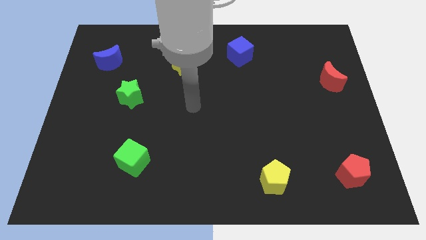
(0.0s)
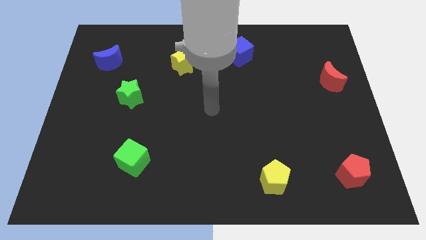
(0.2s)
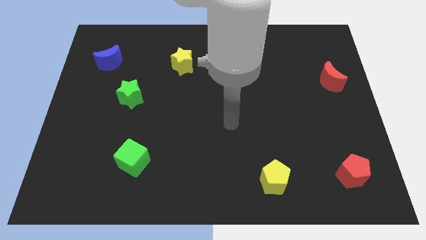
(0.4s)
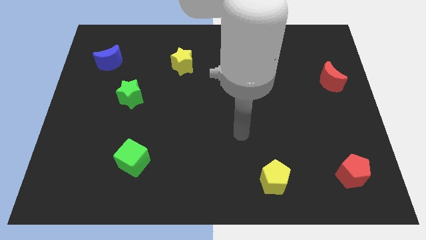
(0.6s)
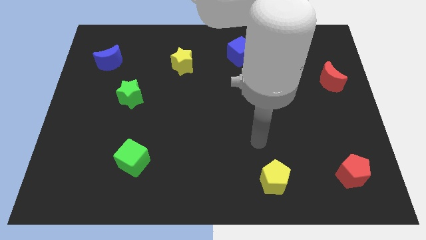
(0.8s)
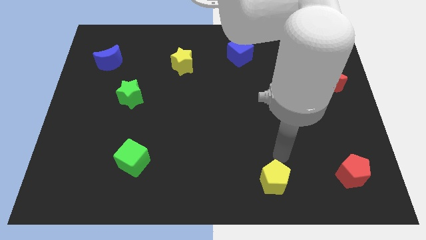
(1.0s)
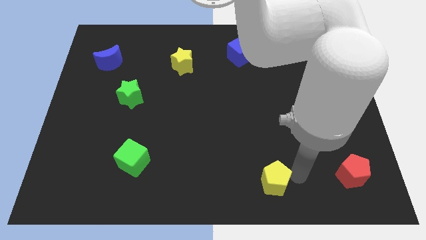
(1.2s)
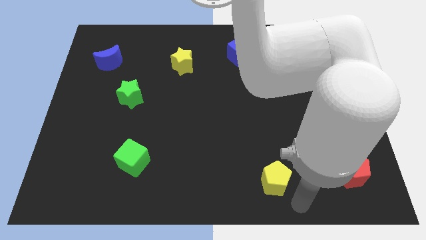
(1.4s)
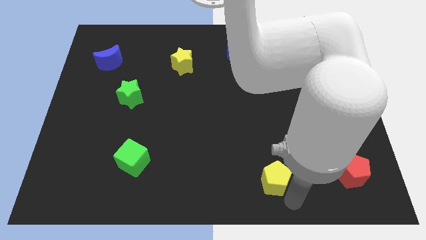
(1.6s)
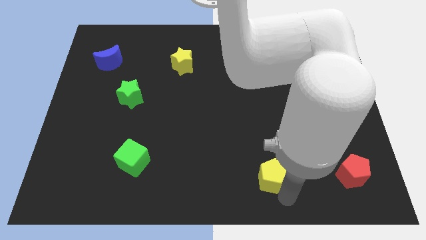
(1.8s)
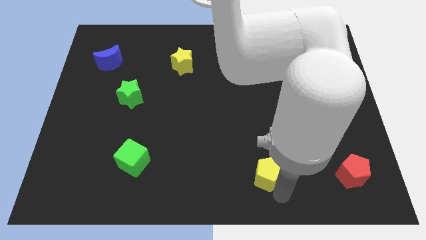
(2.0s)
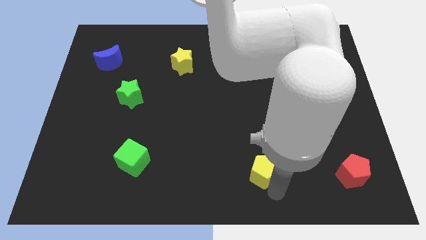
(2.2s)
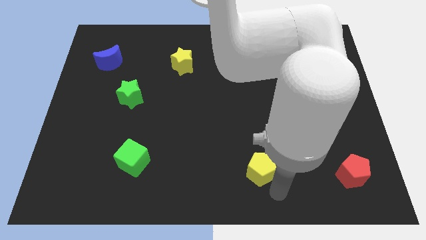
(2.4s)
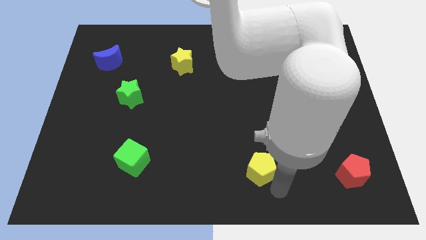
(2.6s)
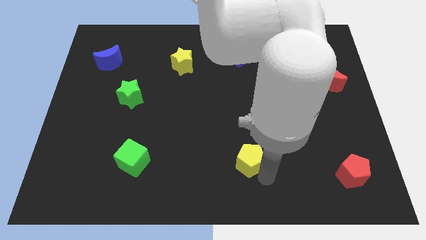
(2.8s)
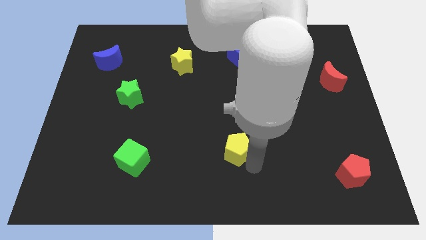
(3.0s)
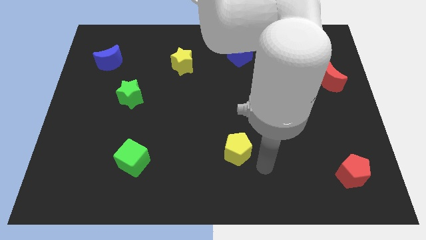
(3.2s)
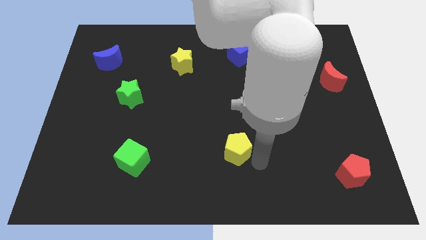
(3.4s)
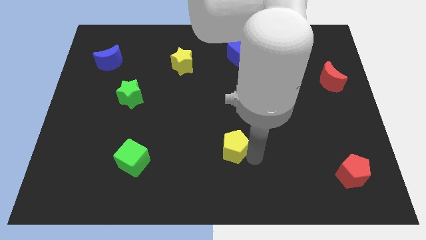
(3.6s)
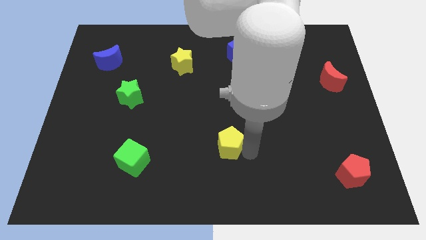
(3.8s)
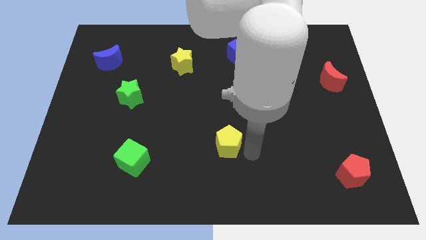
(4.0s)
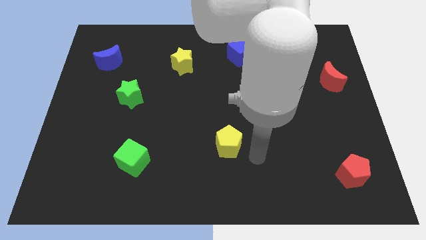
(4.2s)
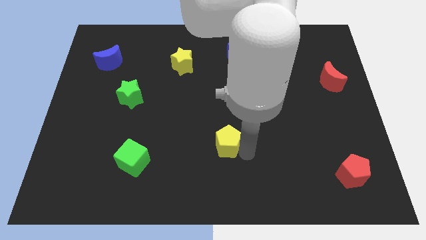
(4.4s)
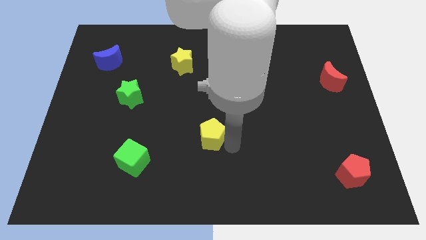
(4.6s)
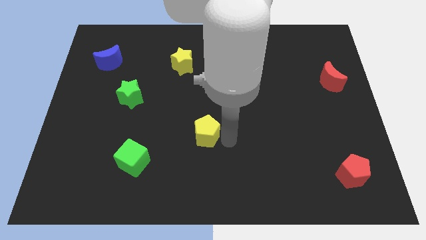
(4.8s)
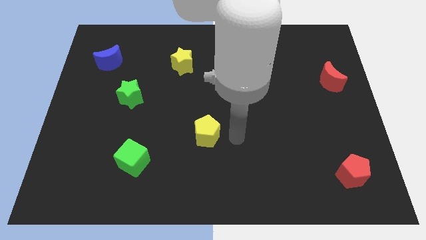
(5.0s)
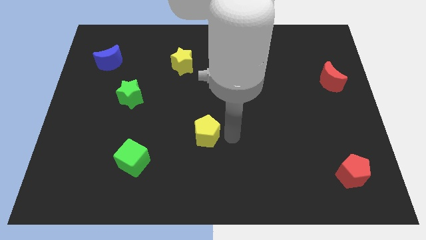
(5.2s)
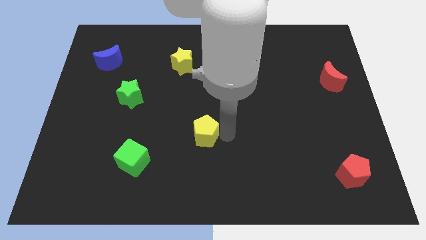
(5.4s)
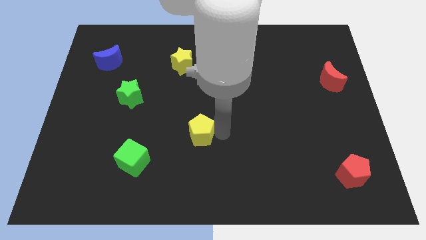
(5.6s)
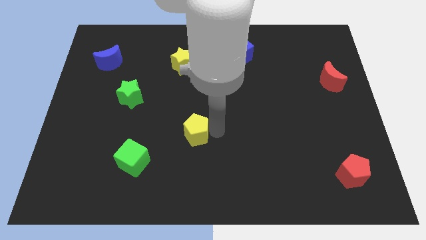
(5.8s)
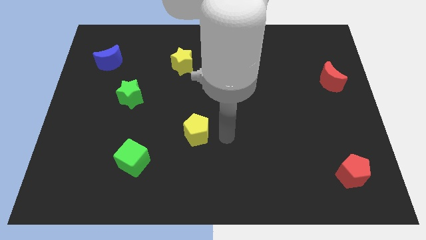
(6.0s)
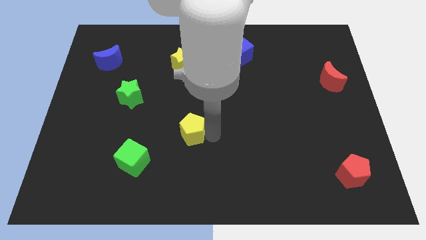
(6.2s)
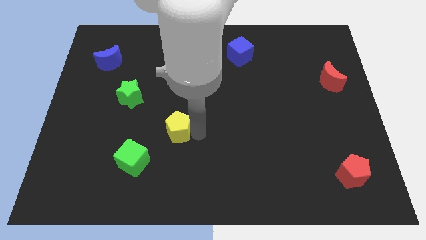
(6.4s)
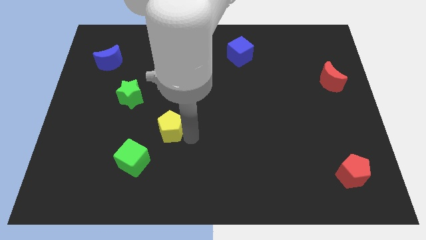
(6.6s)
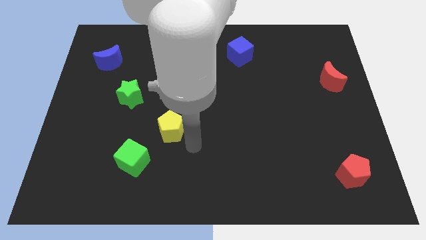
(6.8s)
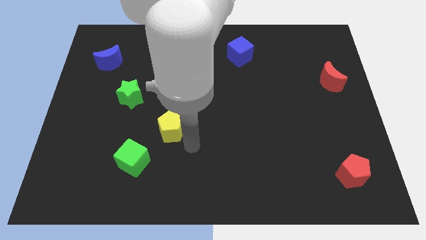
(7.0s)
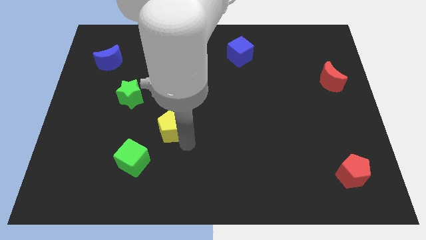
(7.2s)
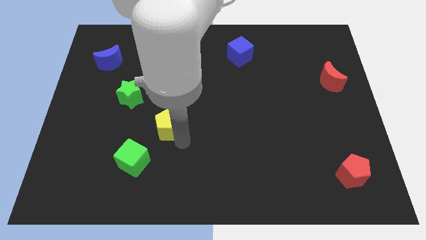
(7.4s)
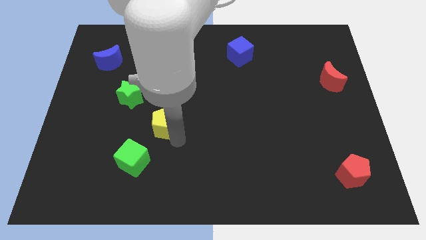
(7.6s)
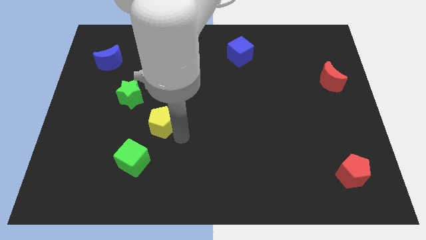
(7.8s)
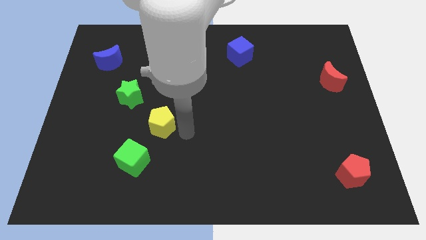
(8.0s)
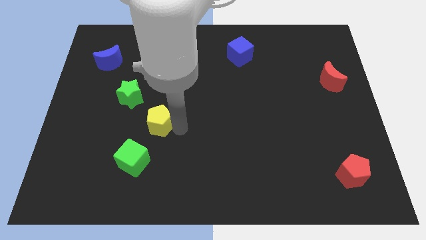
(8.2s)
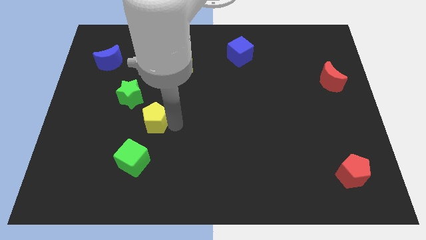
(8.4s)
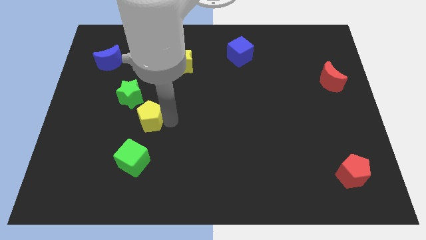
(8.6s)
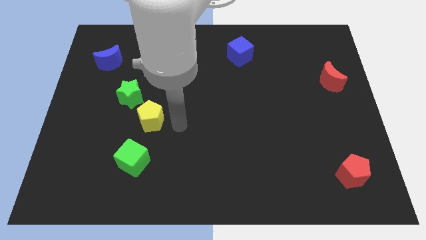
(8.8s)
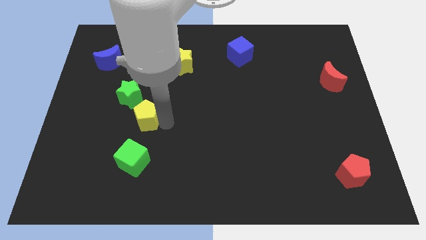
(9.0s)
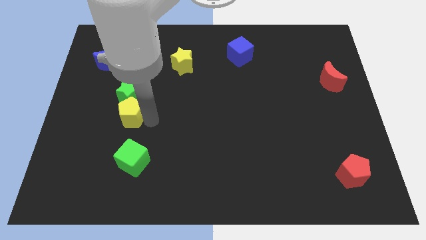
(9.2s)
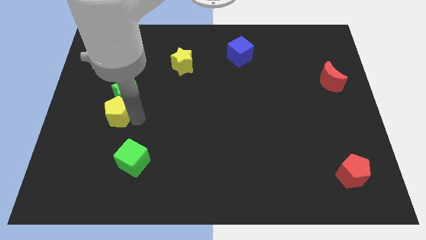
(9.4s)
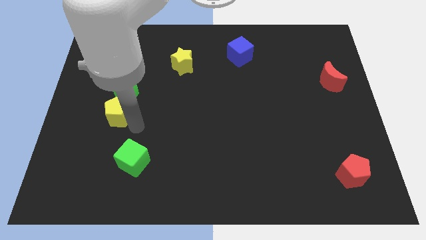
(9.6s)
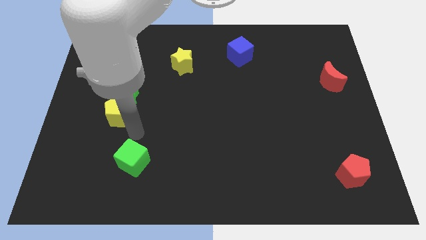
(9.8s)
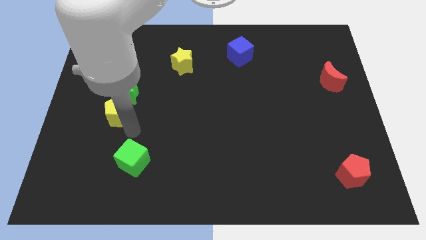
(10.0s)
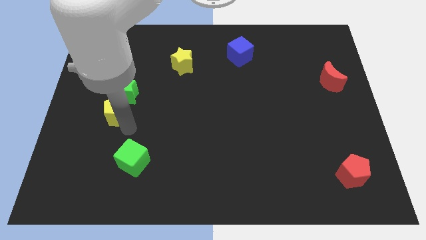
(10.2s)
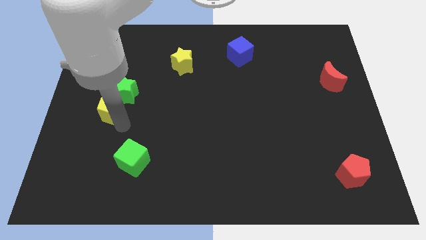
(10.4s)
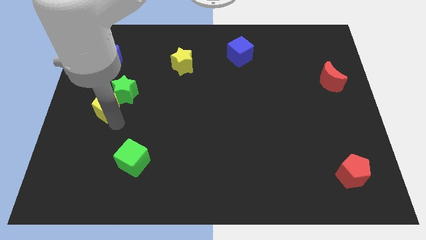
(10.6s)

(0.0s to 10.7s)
slide the yellow pentagon to the bottom side of the blue moon

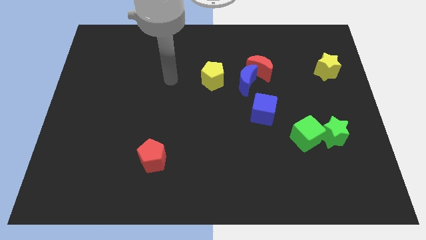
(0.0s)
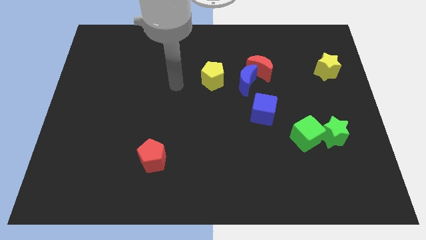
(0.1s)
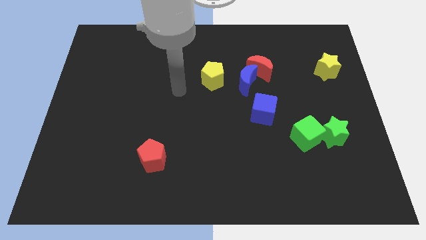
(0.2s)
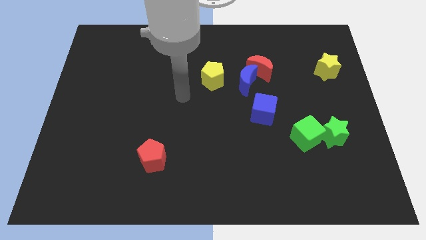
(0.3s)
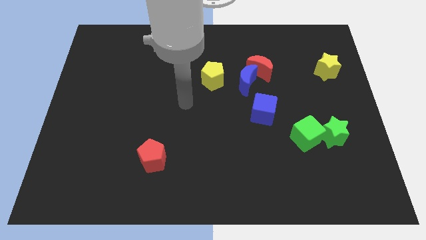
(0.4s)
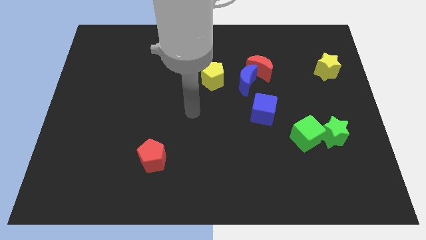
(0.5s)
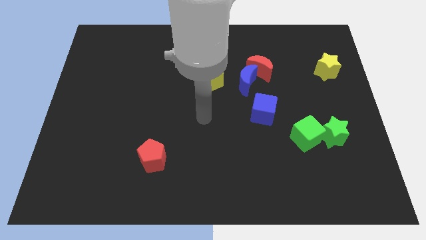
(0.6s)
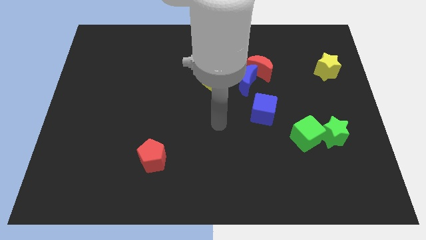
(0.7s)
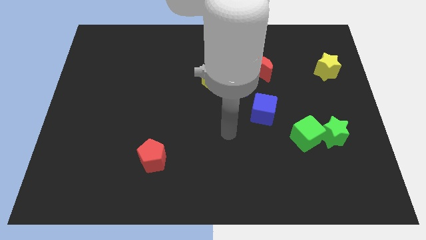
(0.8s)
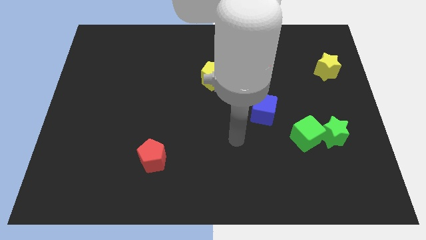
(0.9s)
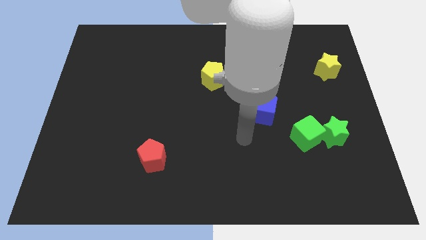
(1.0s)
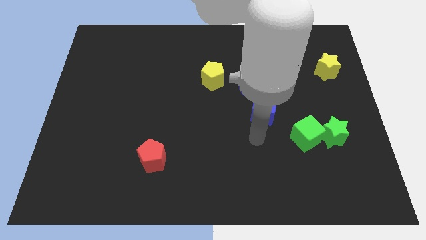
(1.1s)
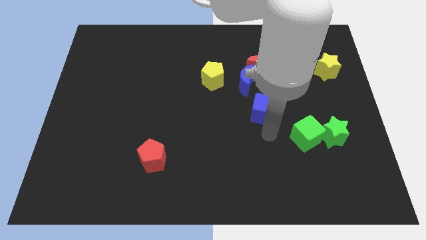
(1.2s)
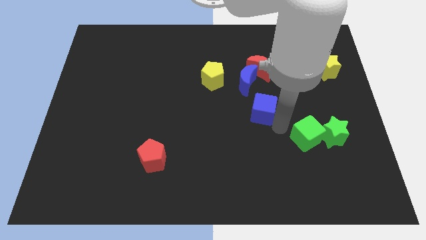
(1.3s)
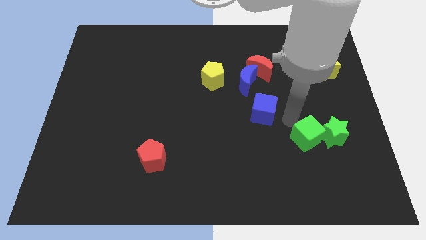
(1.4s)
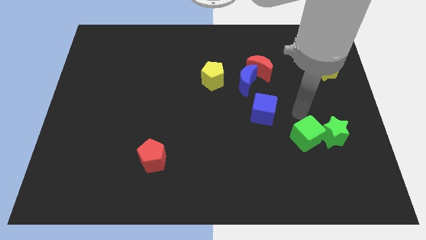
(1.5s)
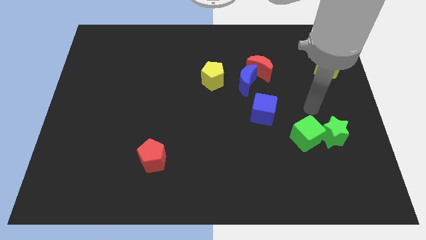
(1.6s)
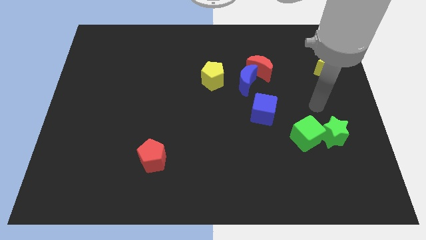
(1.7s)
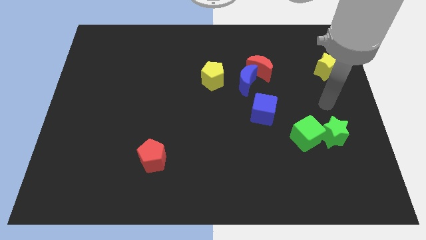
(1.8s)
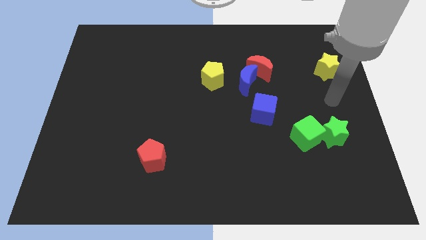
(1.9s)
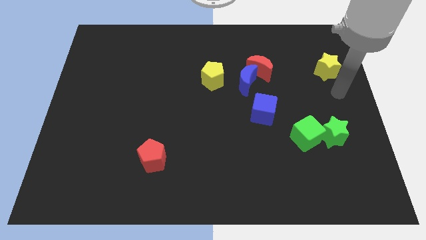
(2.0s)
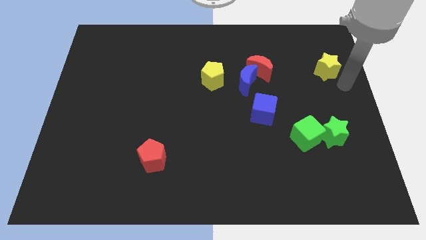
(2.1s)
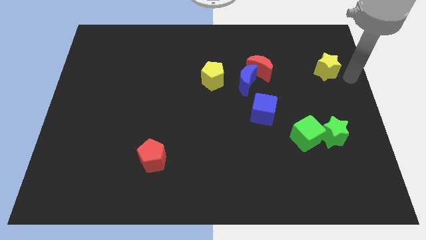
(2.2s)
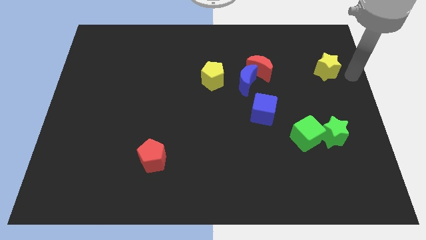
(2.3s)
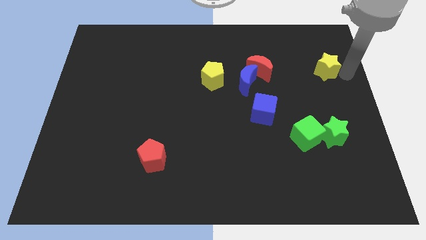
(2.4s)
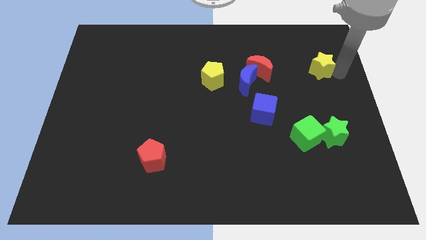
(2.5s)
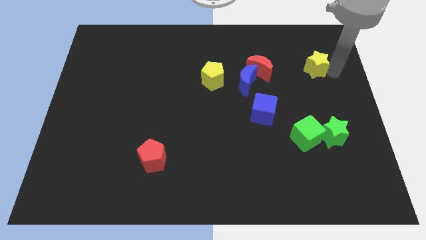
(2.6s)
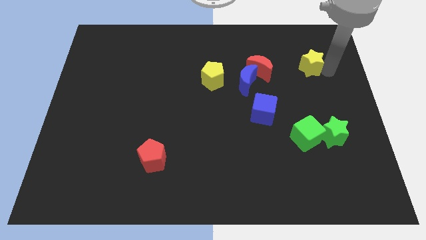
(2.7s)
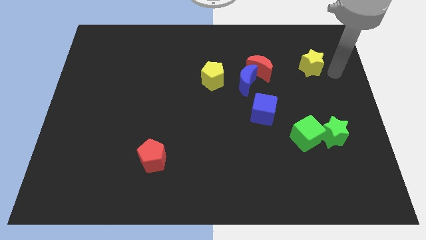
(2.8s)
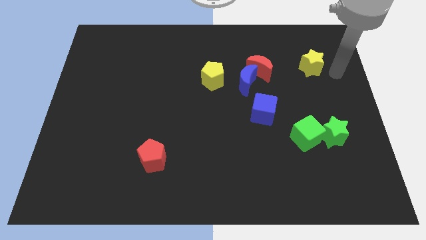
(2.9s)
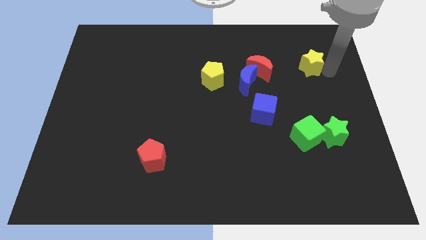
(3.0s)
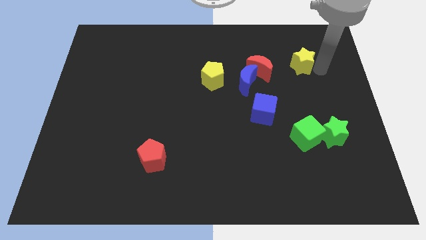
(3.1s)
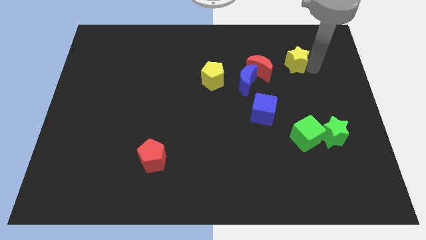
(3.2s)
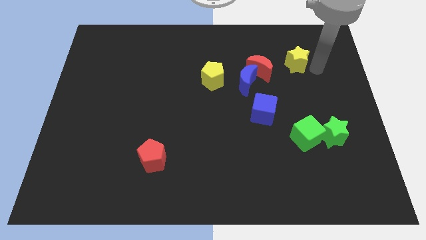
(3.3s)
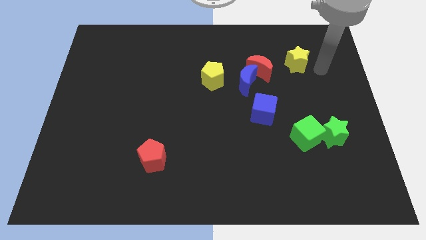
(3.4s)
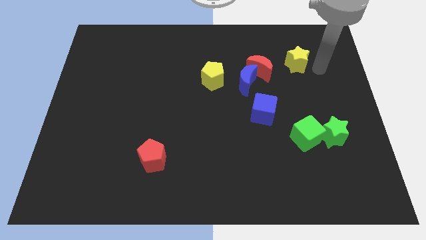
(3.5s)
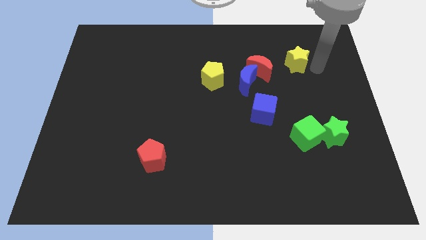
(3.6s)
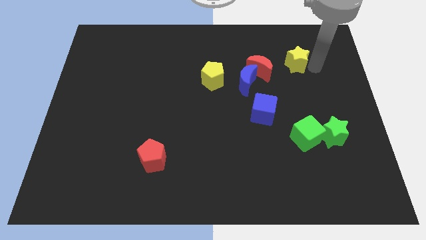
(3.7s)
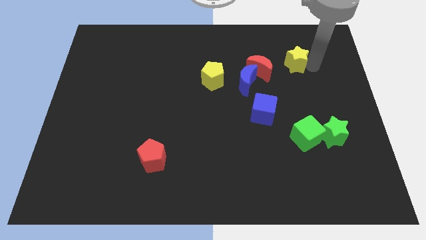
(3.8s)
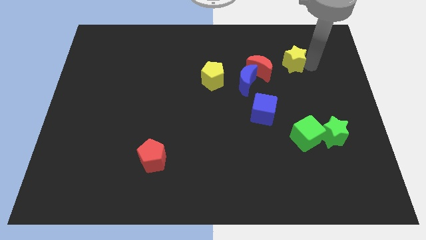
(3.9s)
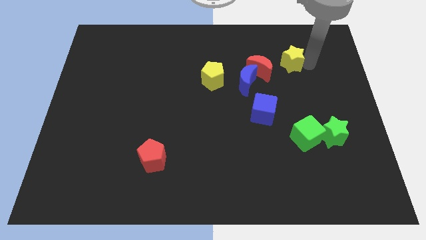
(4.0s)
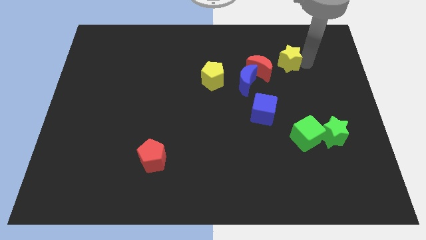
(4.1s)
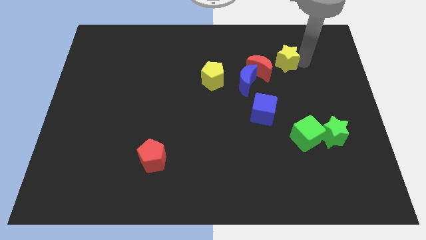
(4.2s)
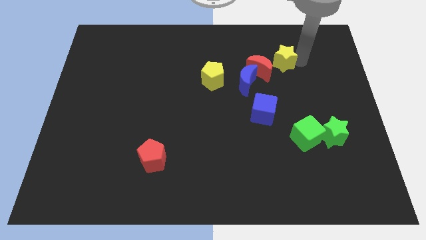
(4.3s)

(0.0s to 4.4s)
push the yellow star to the top right of the blue moon
